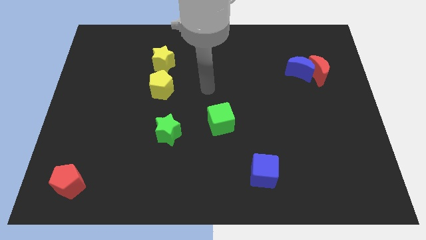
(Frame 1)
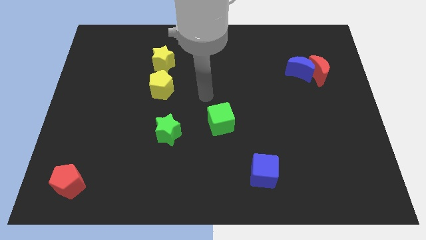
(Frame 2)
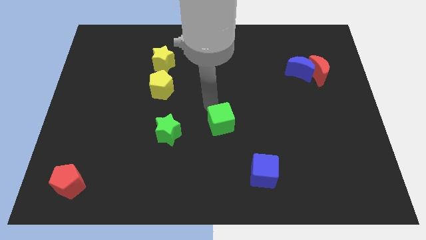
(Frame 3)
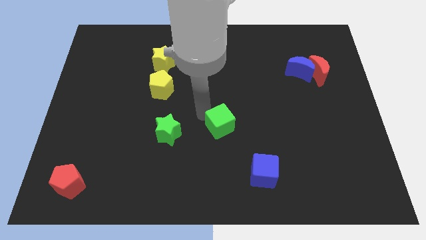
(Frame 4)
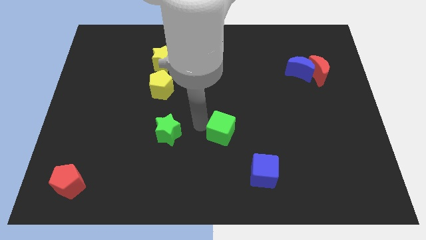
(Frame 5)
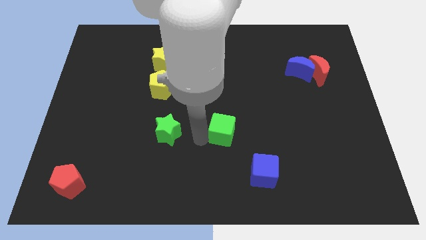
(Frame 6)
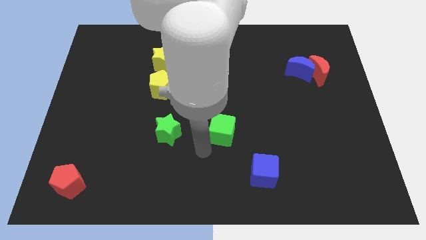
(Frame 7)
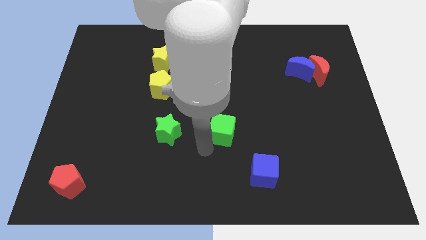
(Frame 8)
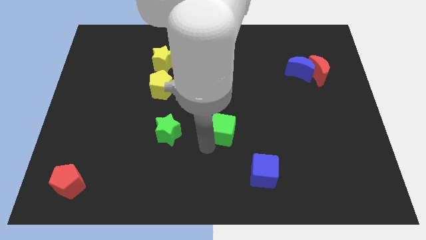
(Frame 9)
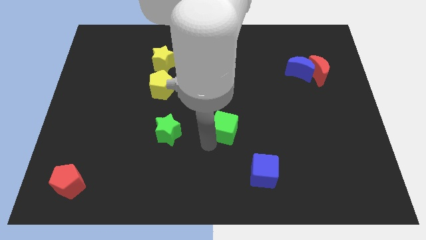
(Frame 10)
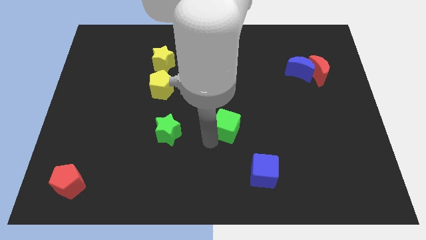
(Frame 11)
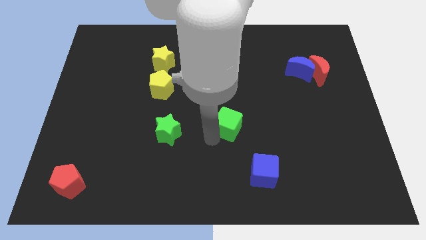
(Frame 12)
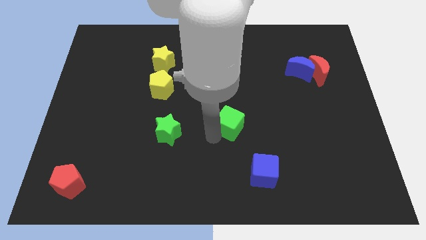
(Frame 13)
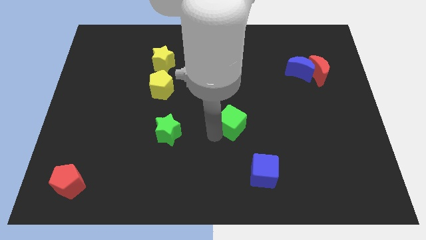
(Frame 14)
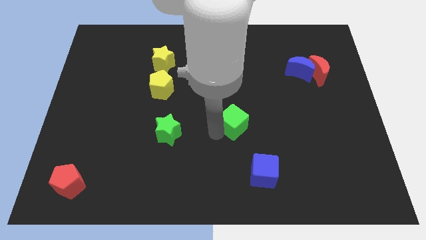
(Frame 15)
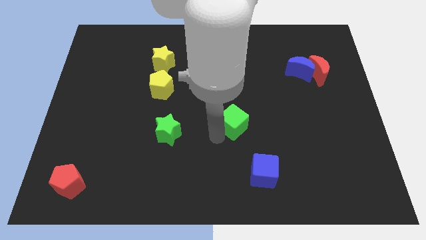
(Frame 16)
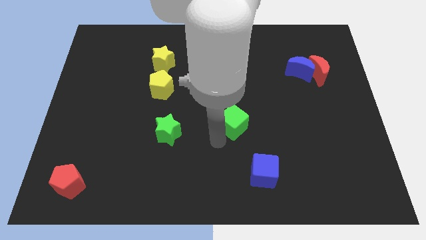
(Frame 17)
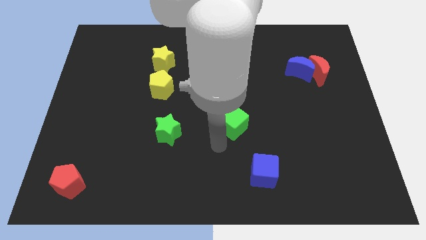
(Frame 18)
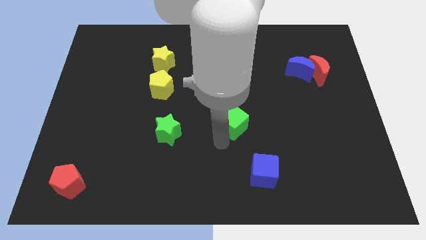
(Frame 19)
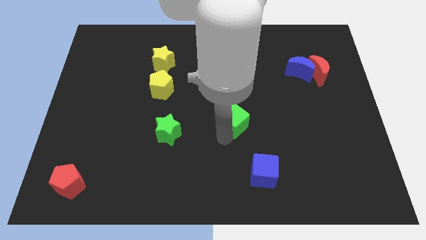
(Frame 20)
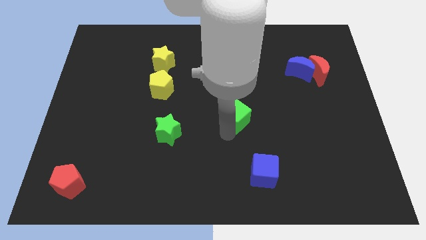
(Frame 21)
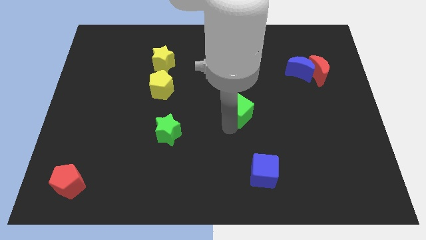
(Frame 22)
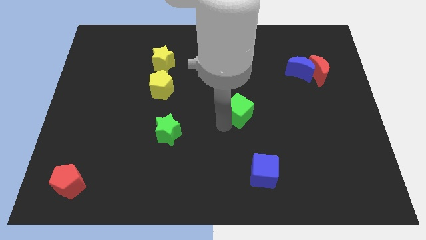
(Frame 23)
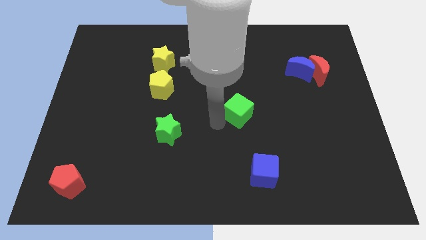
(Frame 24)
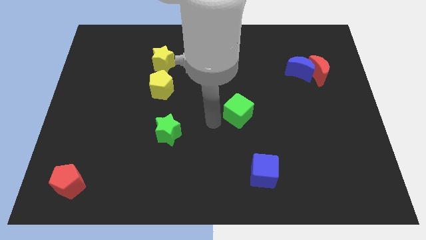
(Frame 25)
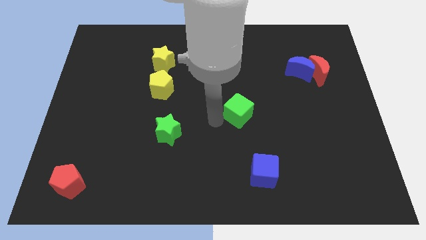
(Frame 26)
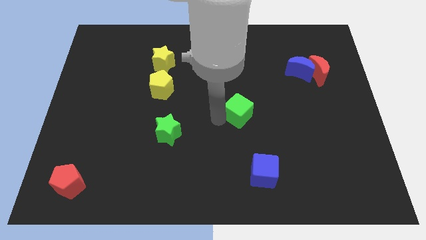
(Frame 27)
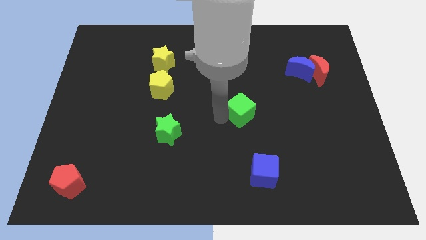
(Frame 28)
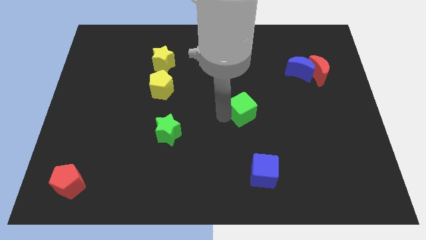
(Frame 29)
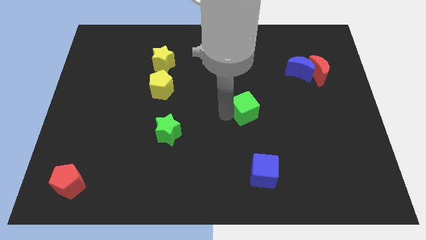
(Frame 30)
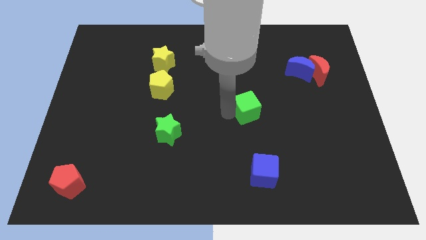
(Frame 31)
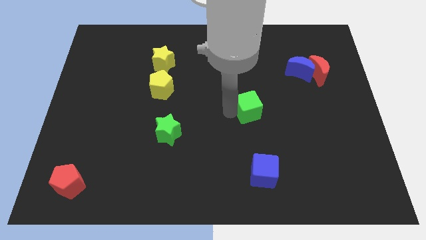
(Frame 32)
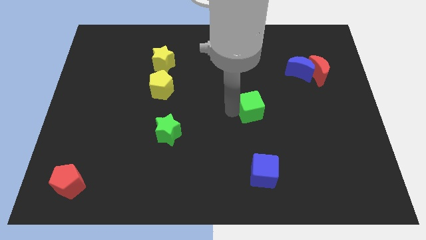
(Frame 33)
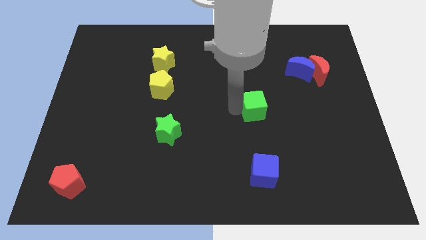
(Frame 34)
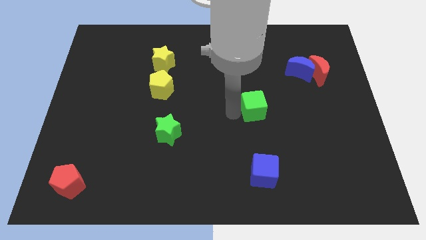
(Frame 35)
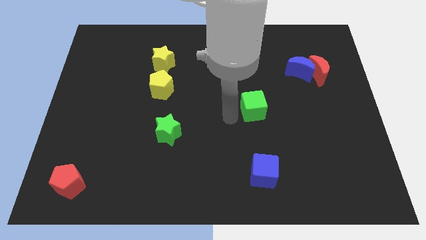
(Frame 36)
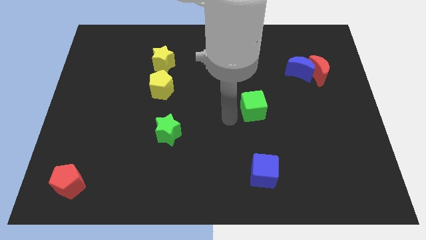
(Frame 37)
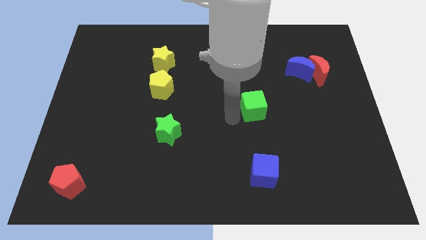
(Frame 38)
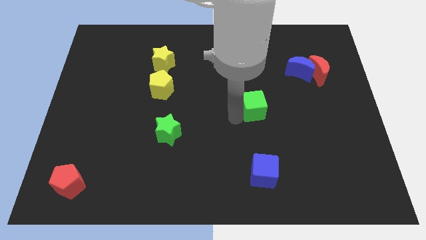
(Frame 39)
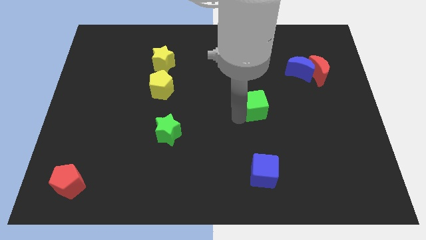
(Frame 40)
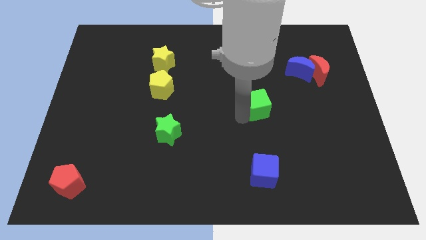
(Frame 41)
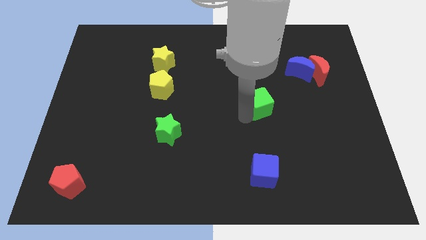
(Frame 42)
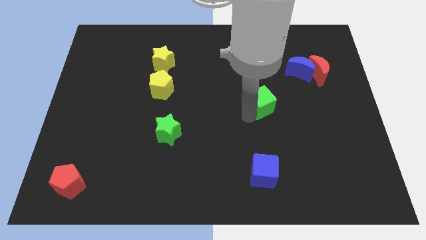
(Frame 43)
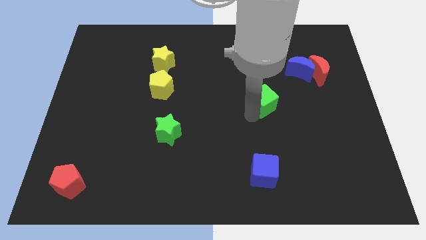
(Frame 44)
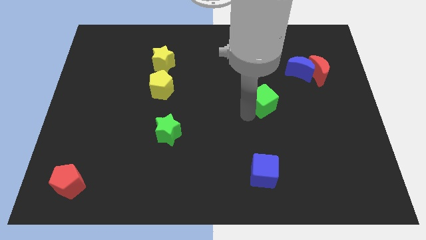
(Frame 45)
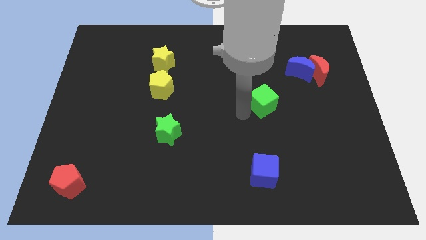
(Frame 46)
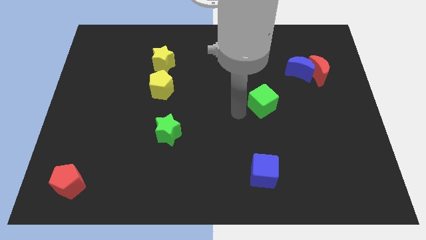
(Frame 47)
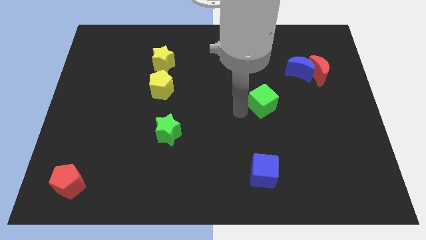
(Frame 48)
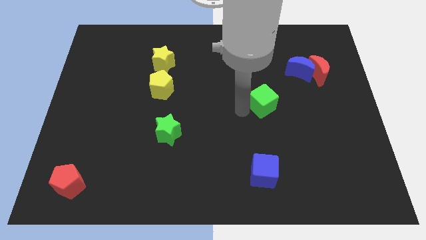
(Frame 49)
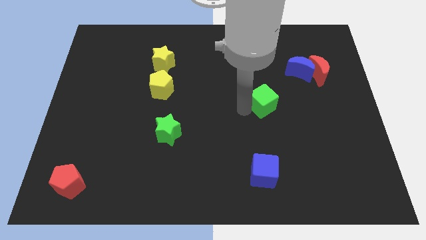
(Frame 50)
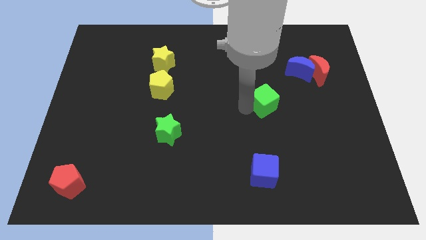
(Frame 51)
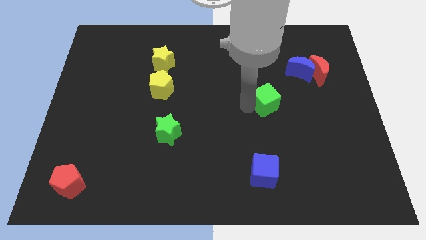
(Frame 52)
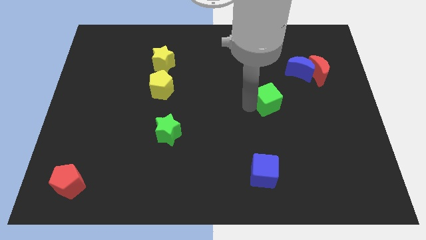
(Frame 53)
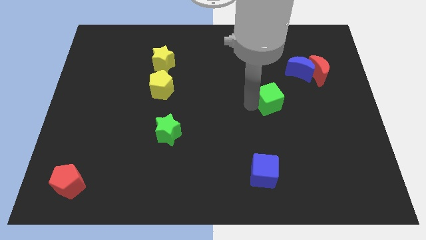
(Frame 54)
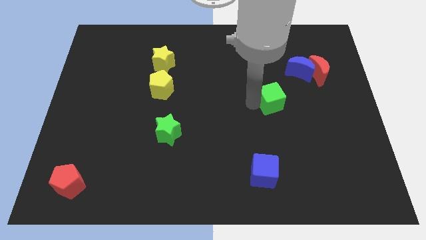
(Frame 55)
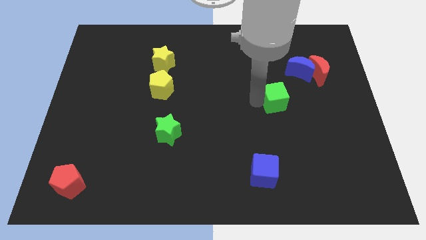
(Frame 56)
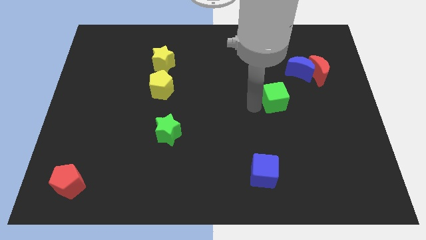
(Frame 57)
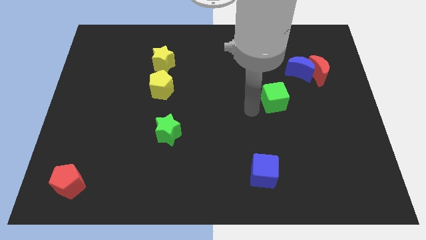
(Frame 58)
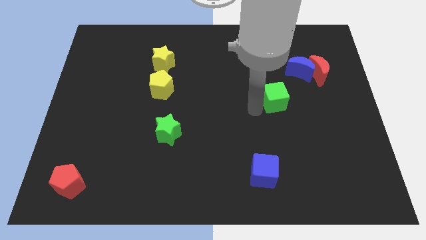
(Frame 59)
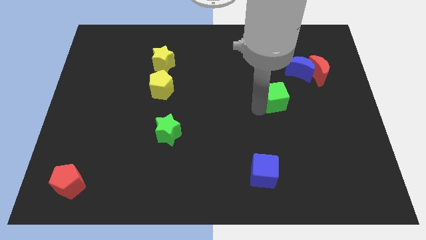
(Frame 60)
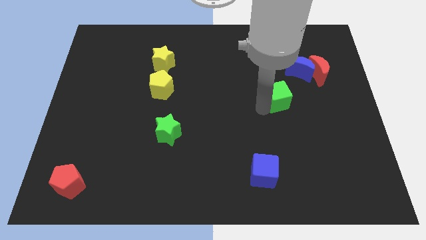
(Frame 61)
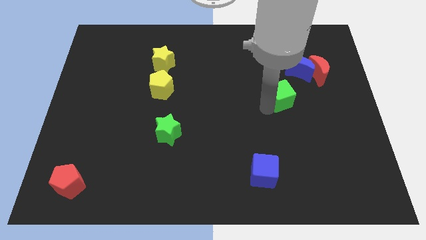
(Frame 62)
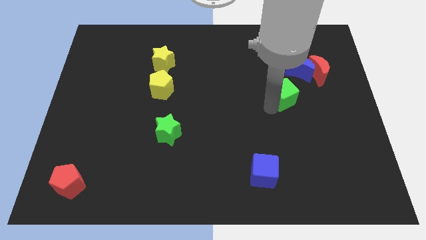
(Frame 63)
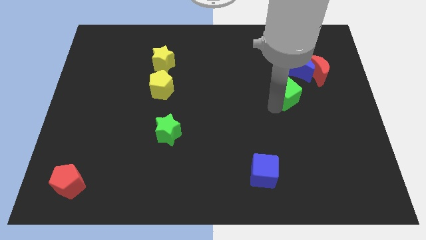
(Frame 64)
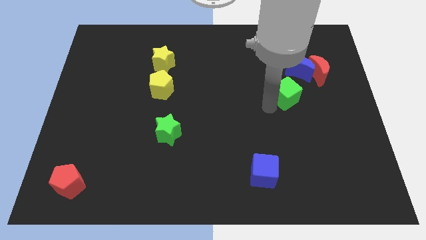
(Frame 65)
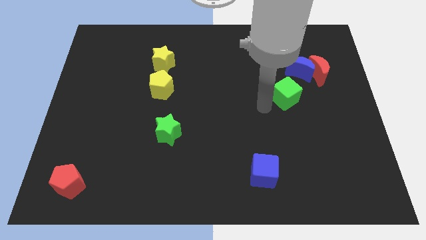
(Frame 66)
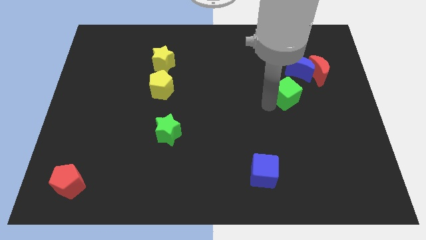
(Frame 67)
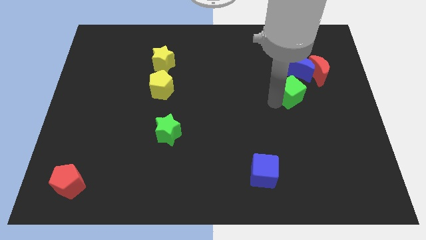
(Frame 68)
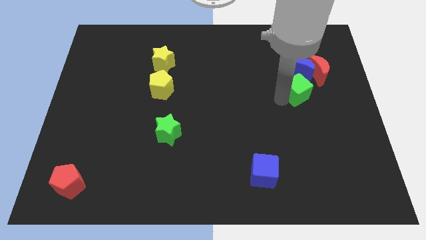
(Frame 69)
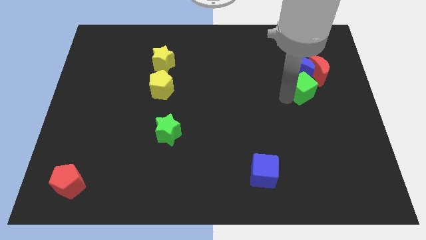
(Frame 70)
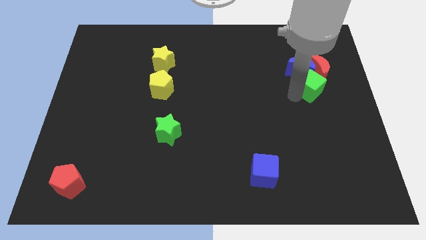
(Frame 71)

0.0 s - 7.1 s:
put the green cube towards the red moon

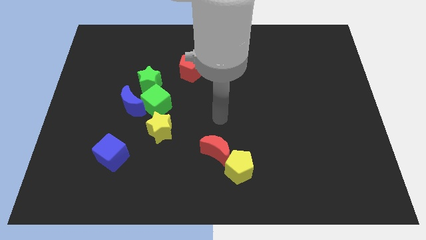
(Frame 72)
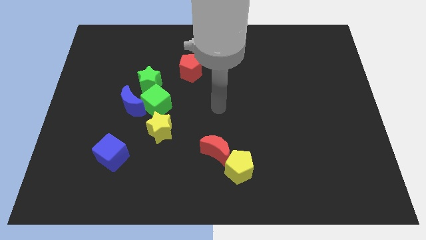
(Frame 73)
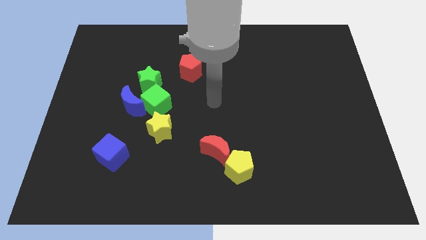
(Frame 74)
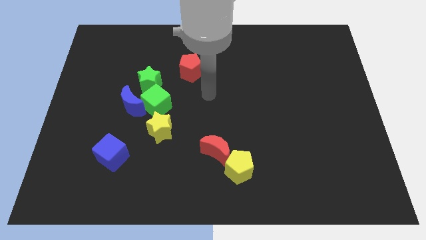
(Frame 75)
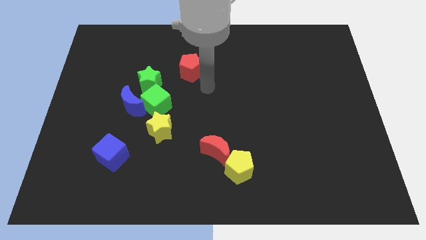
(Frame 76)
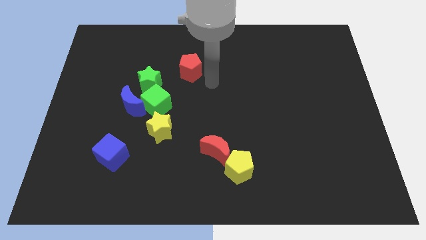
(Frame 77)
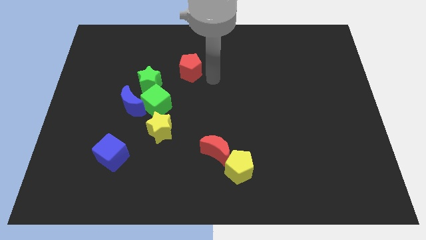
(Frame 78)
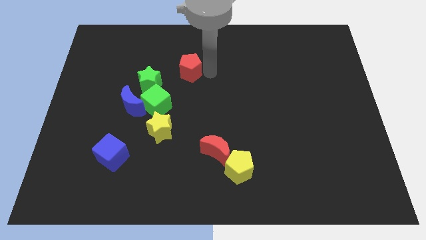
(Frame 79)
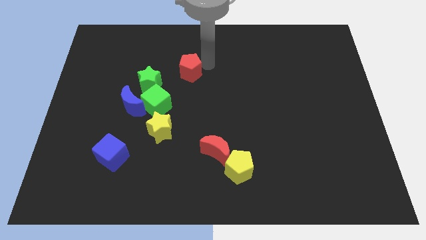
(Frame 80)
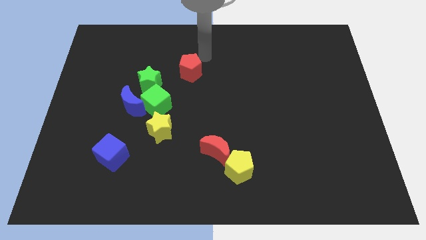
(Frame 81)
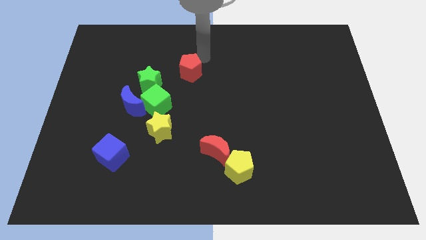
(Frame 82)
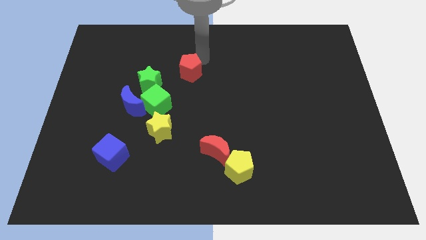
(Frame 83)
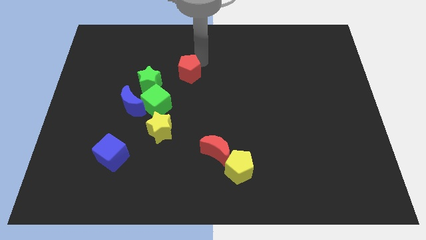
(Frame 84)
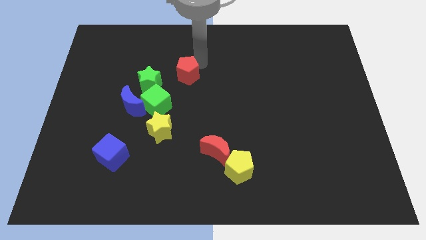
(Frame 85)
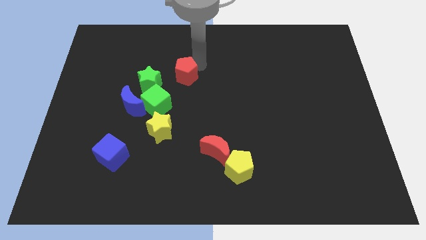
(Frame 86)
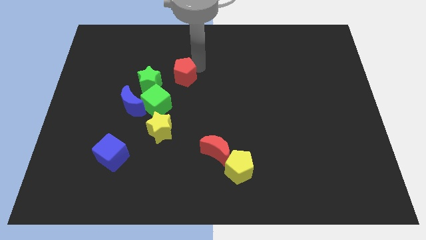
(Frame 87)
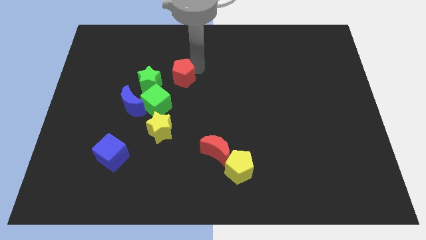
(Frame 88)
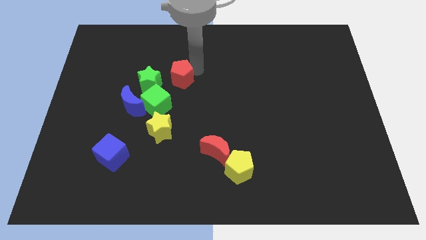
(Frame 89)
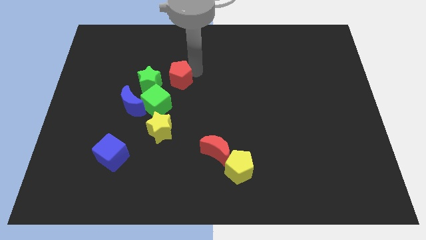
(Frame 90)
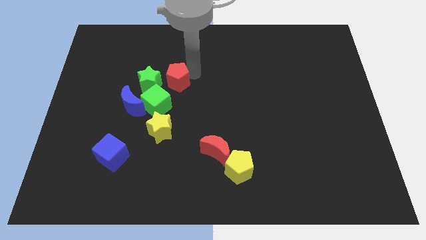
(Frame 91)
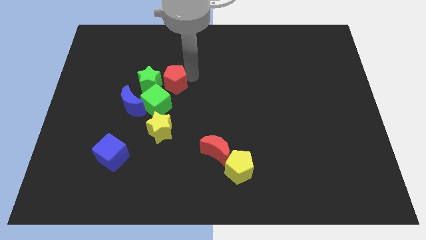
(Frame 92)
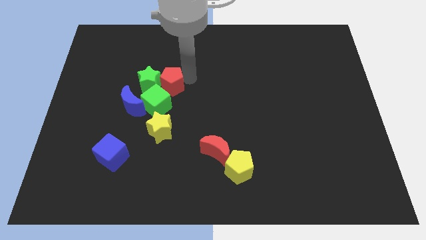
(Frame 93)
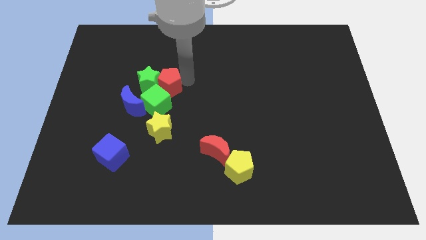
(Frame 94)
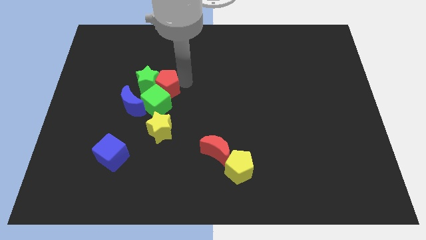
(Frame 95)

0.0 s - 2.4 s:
move the red pentagon close to the green cube
